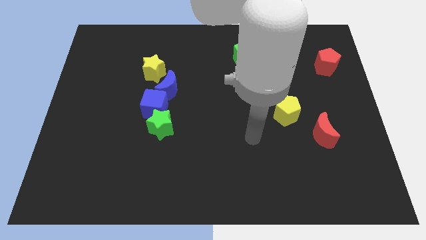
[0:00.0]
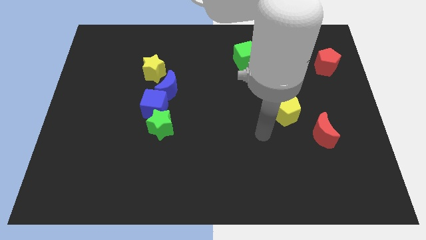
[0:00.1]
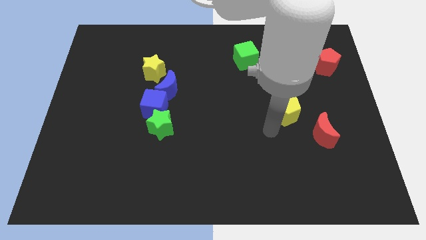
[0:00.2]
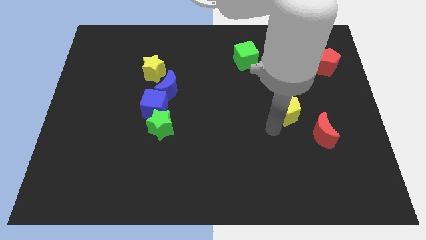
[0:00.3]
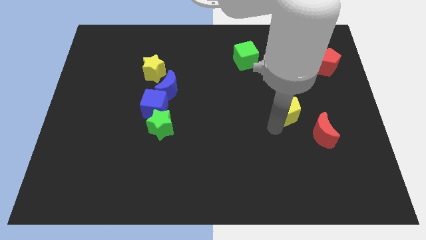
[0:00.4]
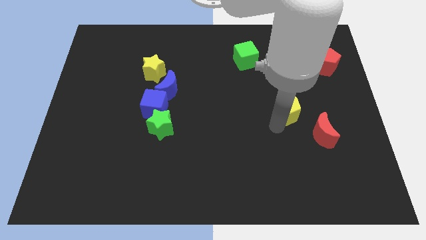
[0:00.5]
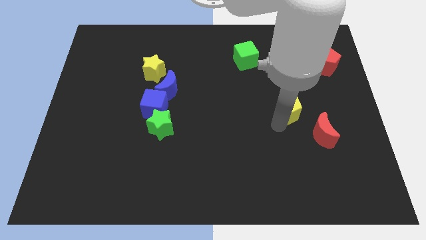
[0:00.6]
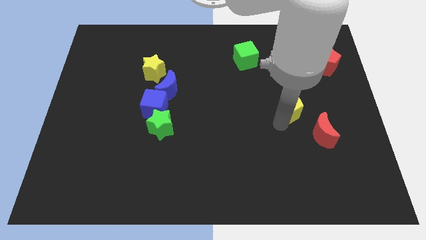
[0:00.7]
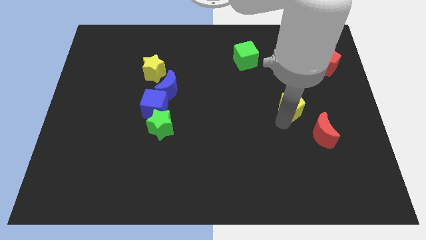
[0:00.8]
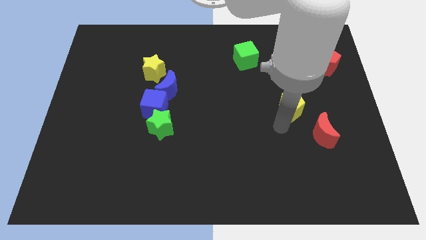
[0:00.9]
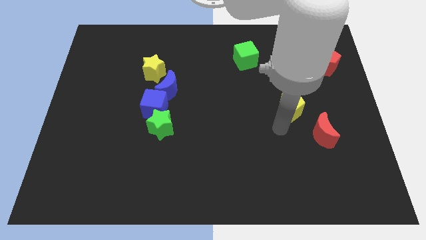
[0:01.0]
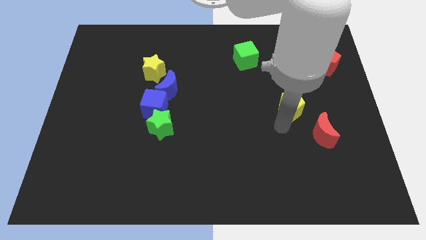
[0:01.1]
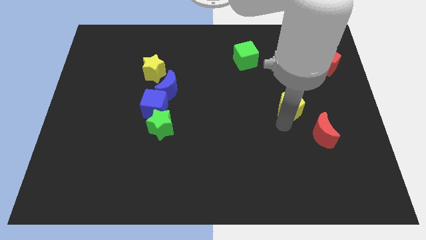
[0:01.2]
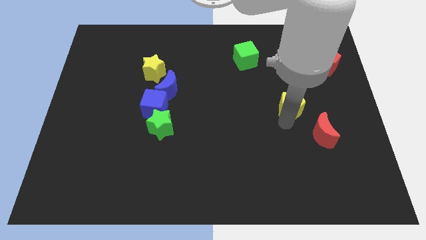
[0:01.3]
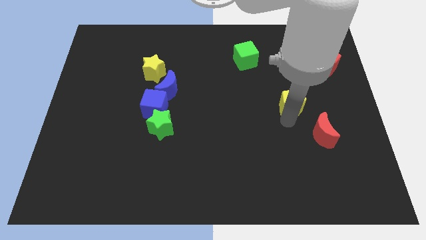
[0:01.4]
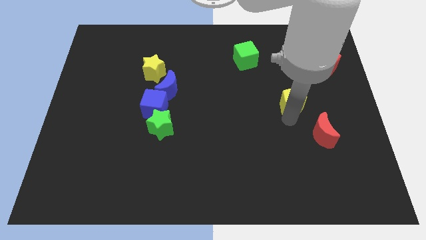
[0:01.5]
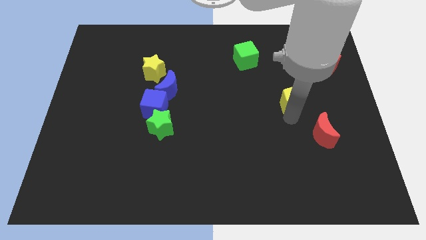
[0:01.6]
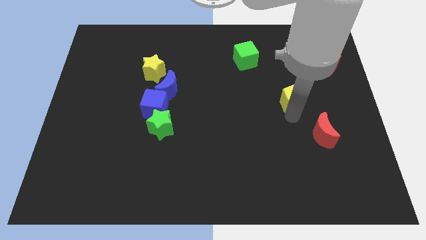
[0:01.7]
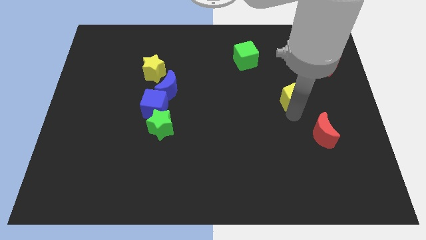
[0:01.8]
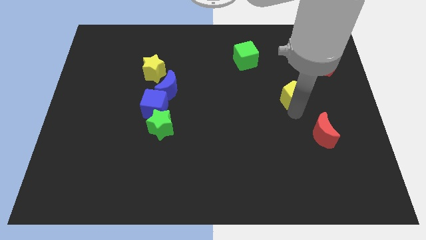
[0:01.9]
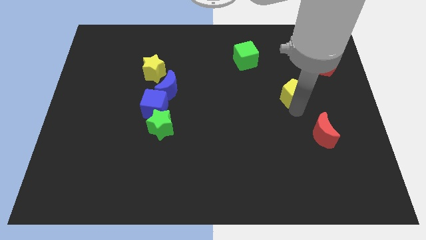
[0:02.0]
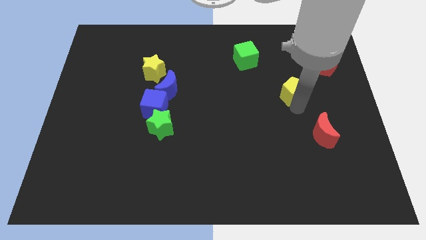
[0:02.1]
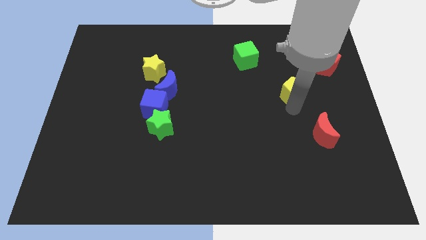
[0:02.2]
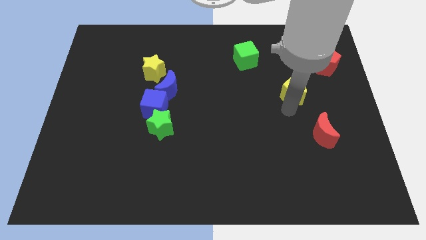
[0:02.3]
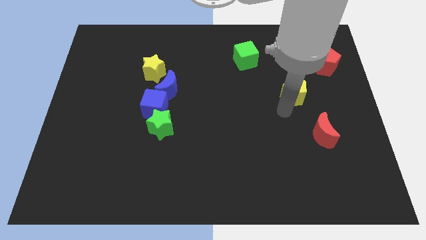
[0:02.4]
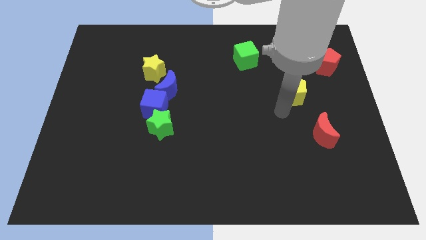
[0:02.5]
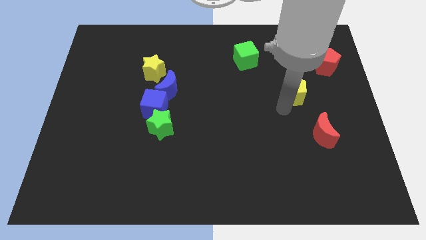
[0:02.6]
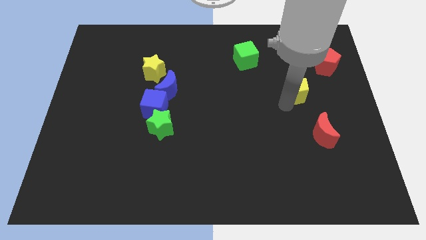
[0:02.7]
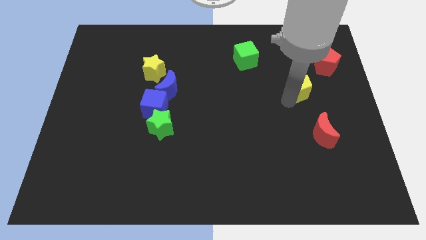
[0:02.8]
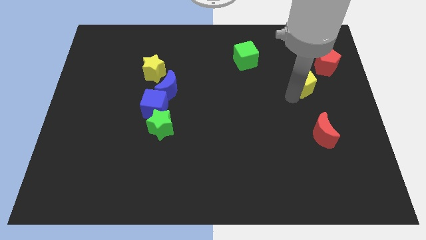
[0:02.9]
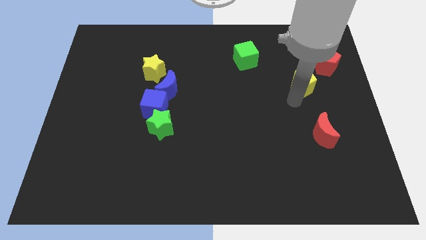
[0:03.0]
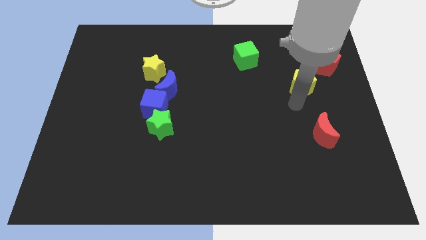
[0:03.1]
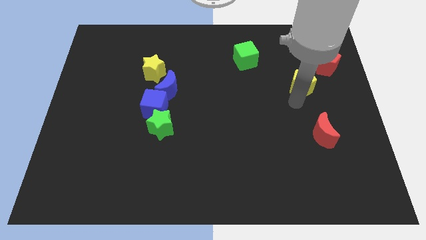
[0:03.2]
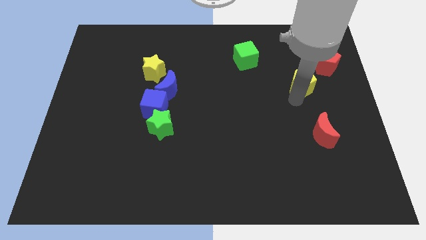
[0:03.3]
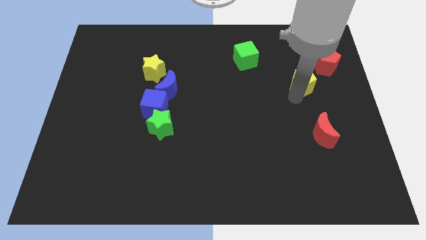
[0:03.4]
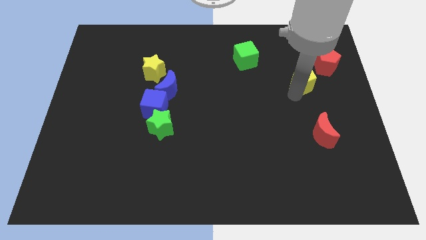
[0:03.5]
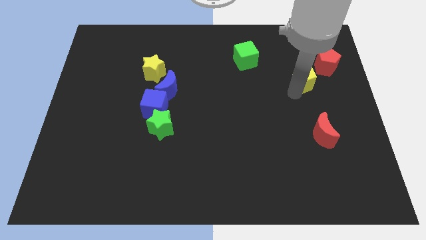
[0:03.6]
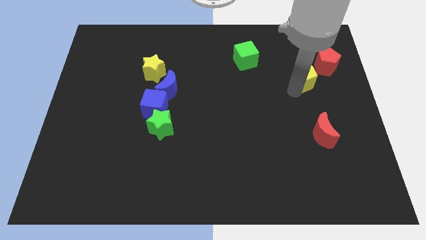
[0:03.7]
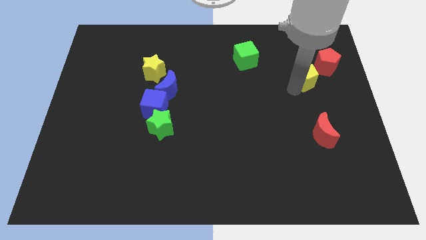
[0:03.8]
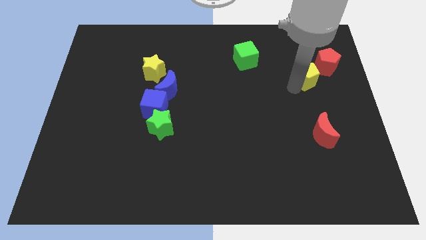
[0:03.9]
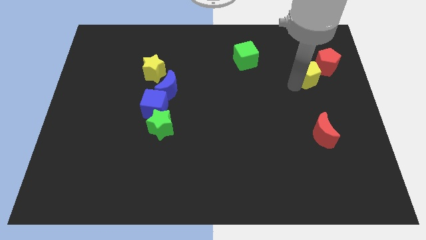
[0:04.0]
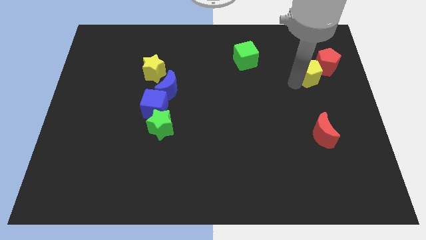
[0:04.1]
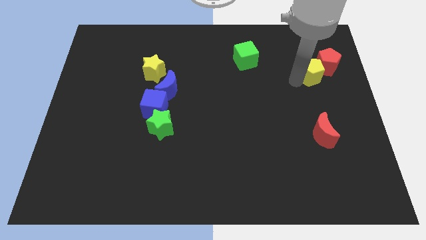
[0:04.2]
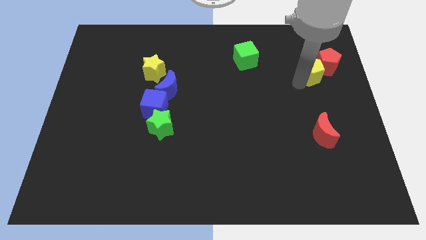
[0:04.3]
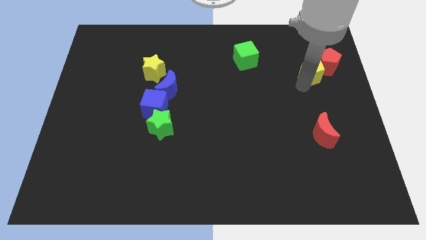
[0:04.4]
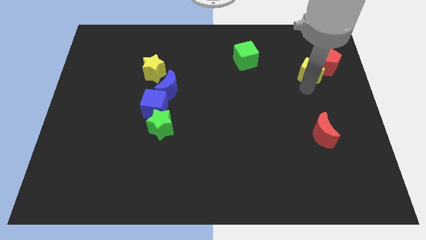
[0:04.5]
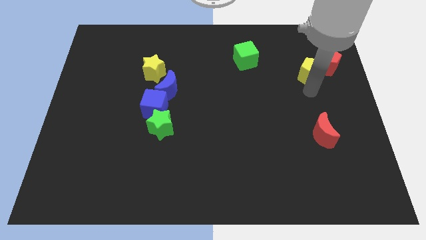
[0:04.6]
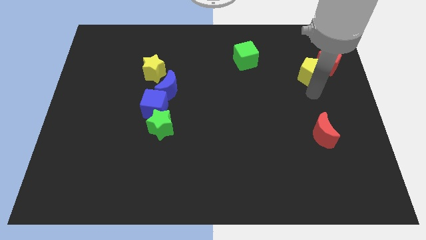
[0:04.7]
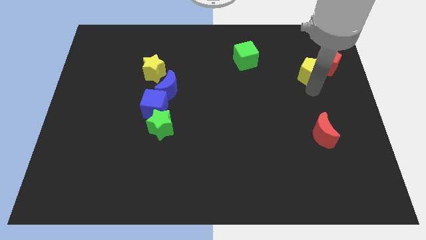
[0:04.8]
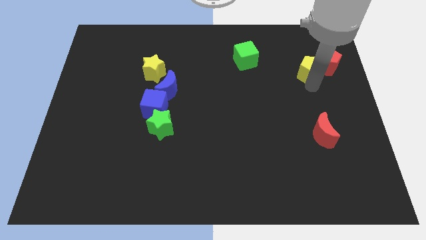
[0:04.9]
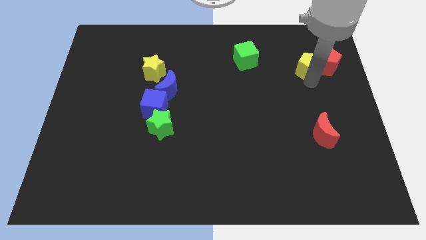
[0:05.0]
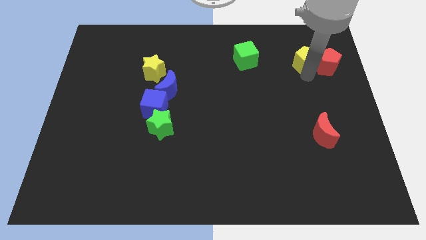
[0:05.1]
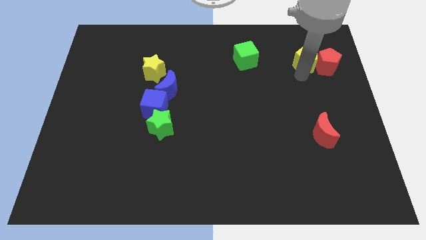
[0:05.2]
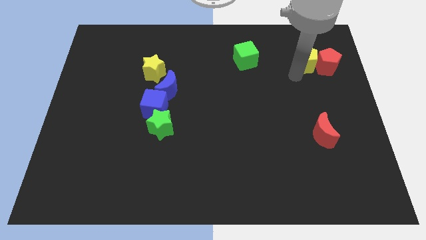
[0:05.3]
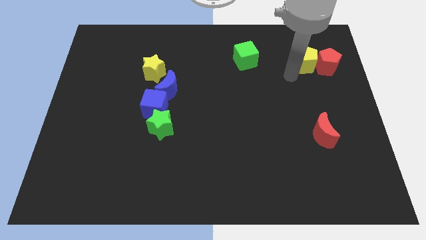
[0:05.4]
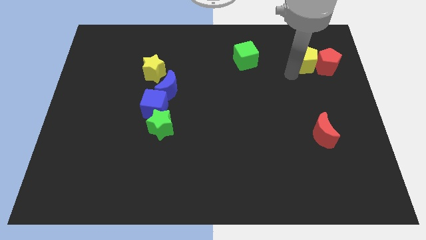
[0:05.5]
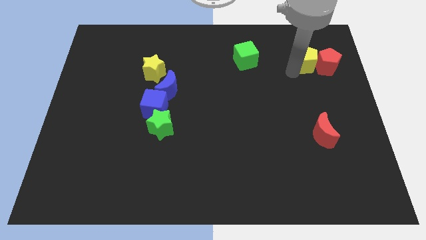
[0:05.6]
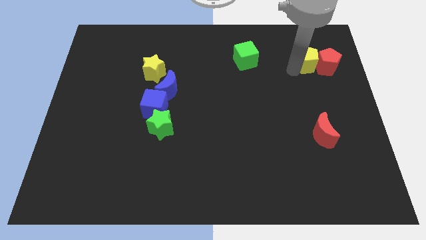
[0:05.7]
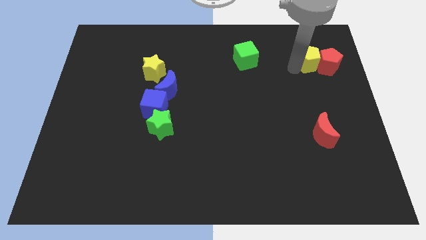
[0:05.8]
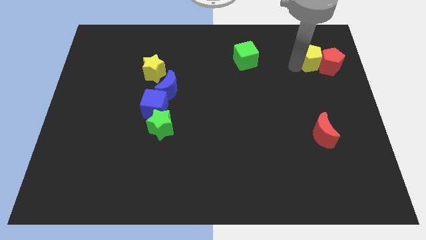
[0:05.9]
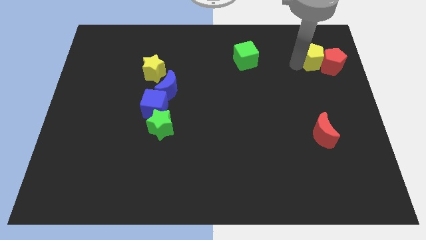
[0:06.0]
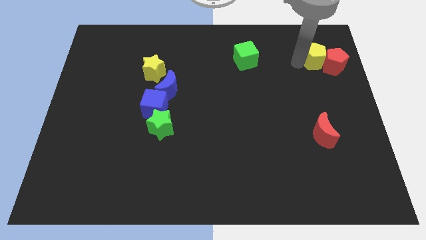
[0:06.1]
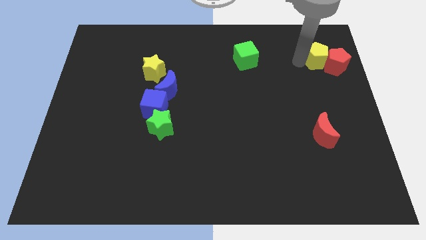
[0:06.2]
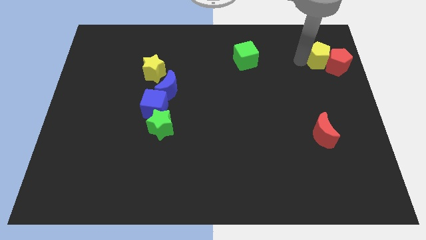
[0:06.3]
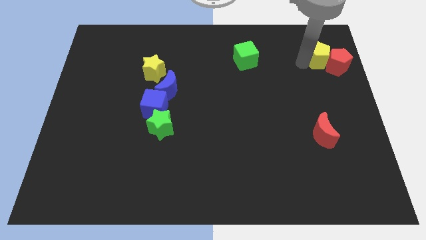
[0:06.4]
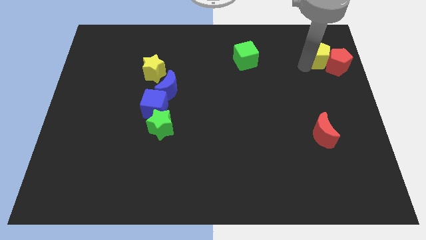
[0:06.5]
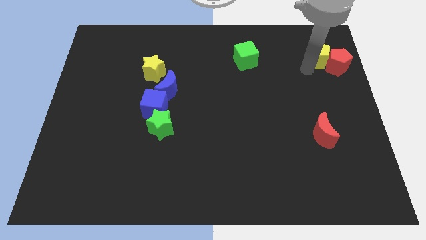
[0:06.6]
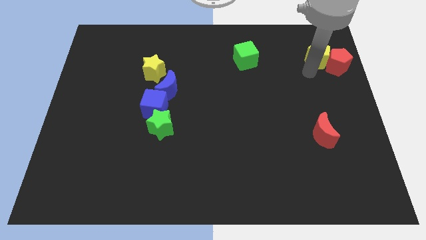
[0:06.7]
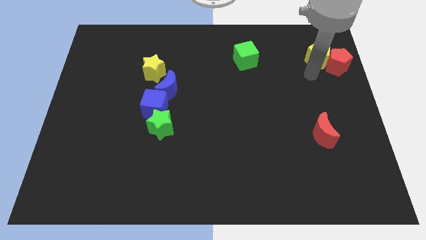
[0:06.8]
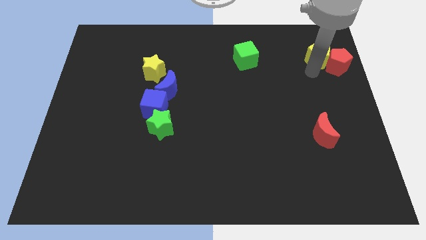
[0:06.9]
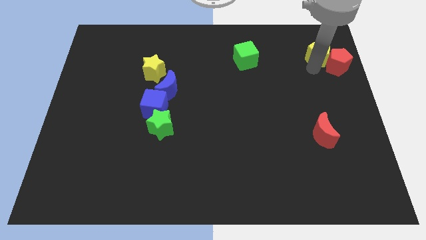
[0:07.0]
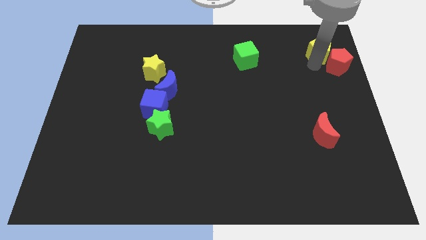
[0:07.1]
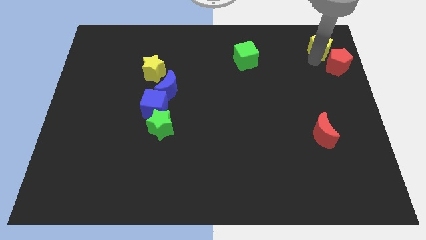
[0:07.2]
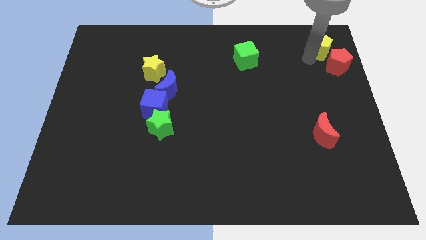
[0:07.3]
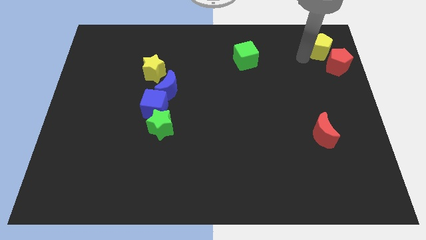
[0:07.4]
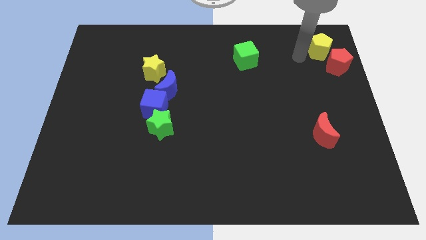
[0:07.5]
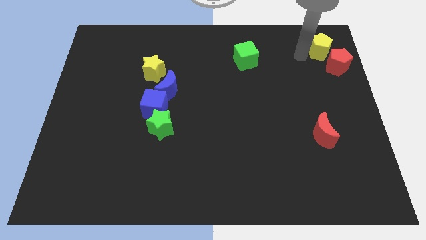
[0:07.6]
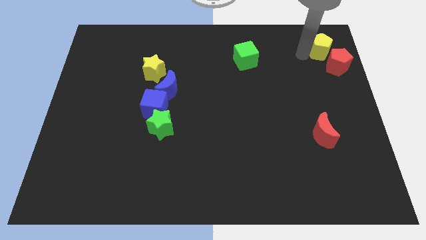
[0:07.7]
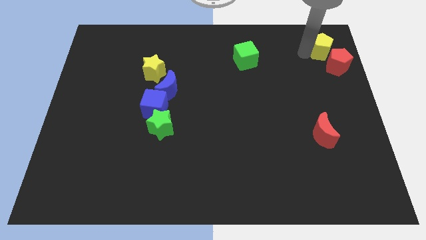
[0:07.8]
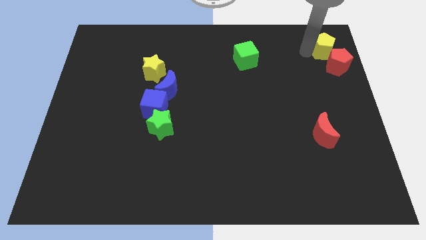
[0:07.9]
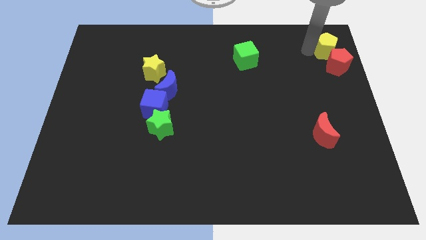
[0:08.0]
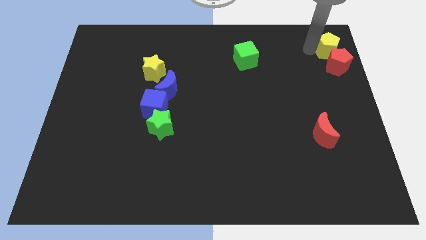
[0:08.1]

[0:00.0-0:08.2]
push the yellow pentagon to the upper right corner
